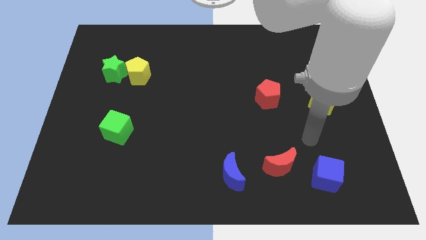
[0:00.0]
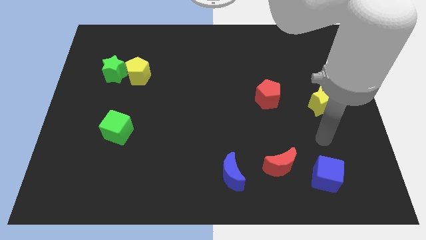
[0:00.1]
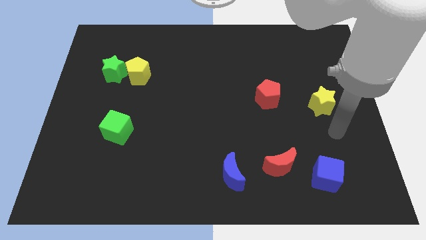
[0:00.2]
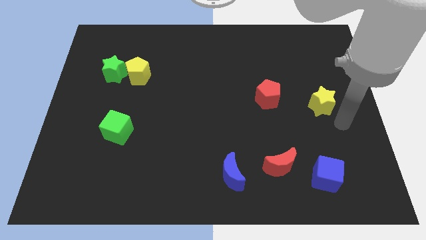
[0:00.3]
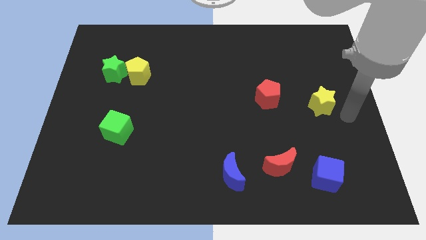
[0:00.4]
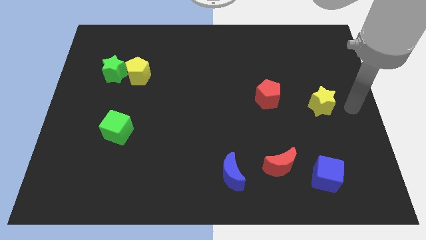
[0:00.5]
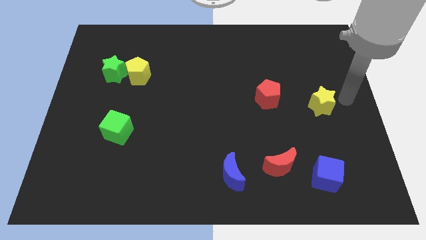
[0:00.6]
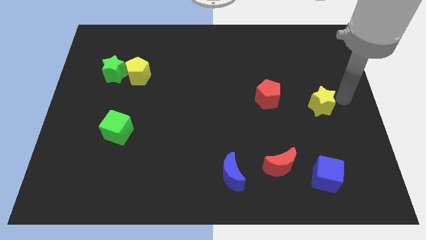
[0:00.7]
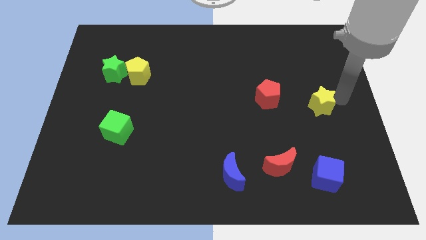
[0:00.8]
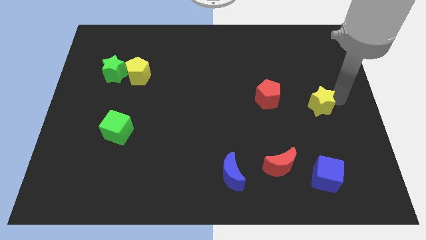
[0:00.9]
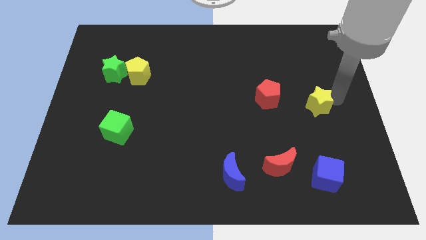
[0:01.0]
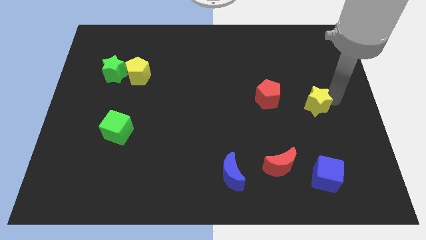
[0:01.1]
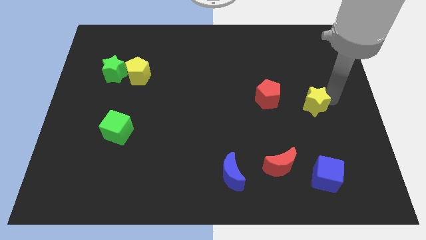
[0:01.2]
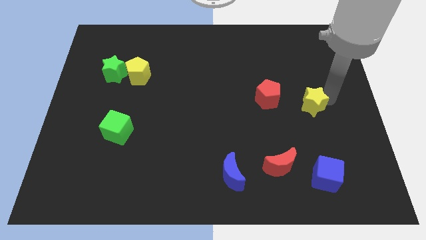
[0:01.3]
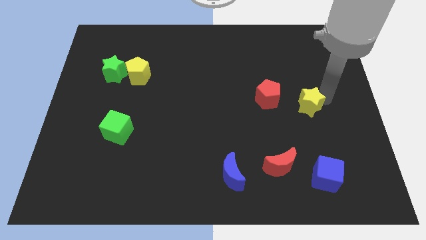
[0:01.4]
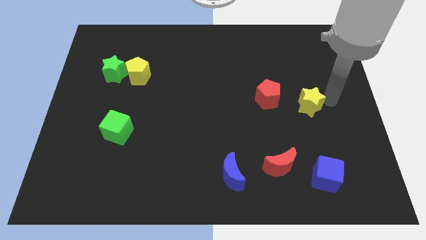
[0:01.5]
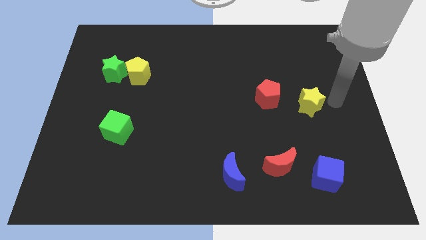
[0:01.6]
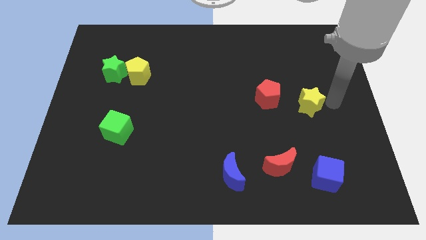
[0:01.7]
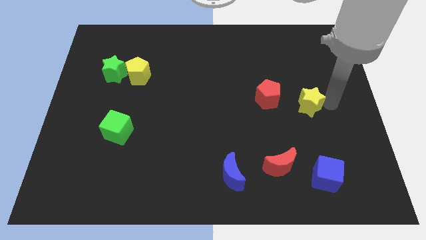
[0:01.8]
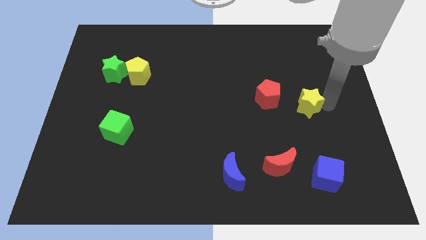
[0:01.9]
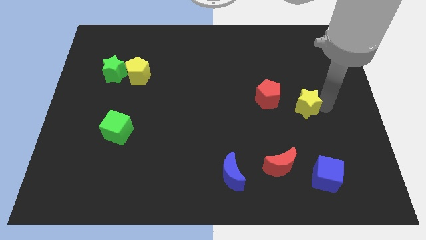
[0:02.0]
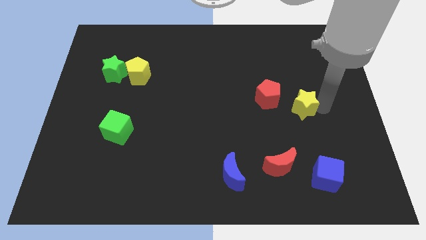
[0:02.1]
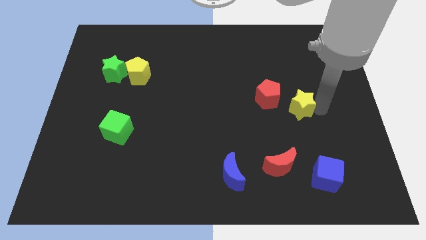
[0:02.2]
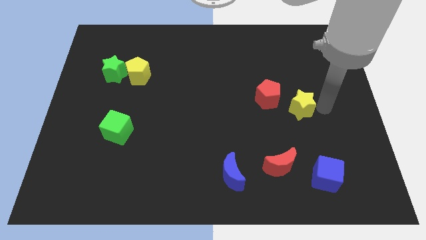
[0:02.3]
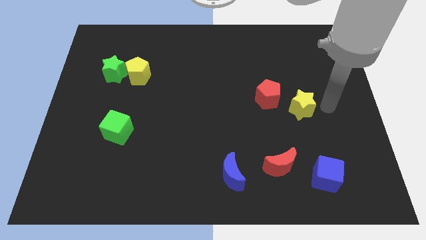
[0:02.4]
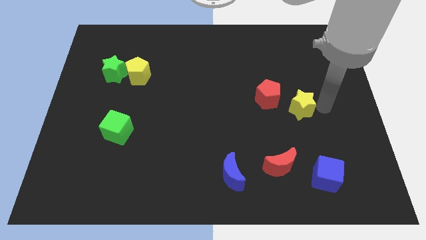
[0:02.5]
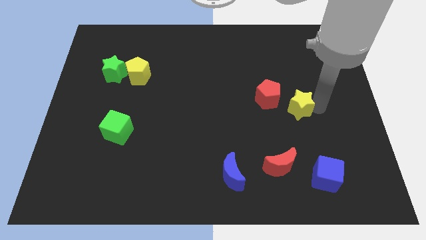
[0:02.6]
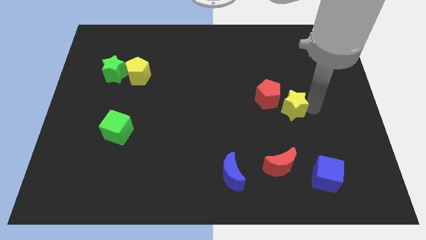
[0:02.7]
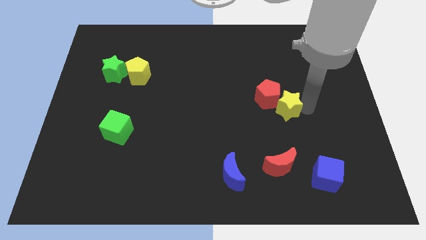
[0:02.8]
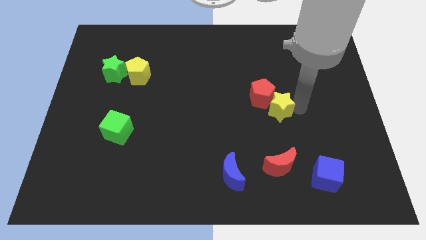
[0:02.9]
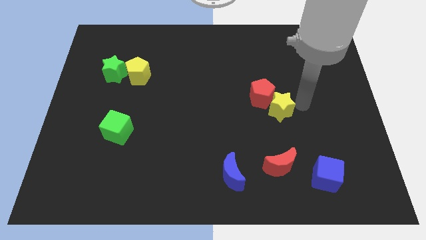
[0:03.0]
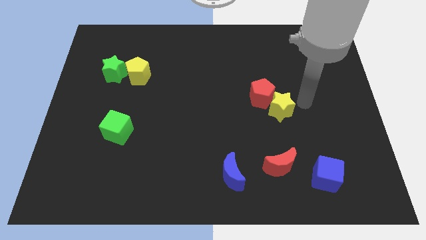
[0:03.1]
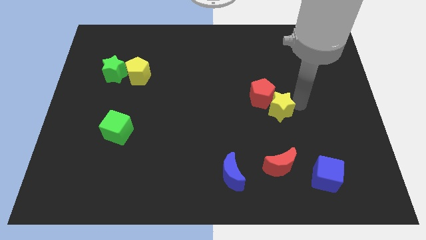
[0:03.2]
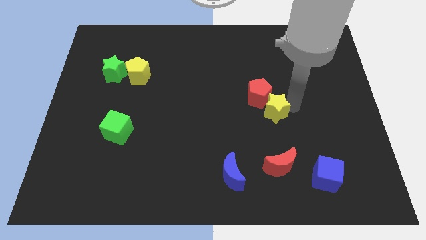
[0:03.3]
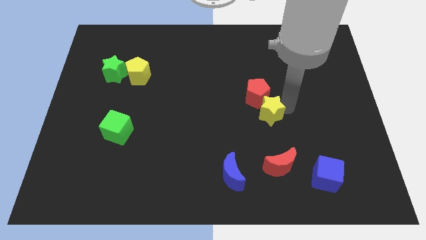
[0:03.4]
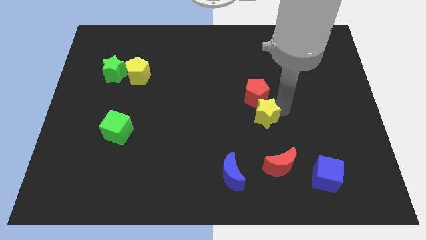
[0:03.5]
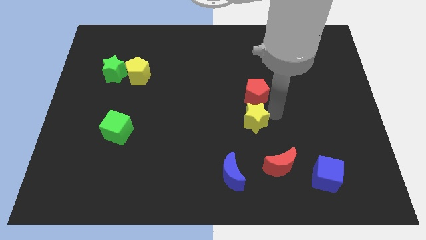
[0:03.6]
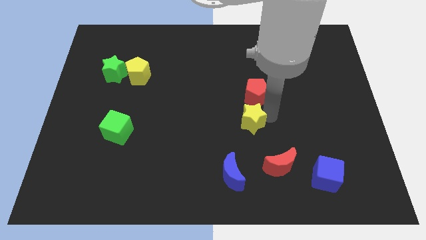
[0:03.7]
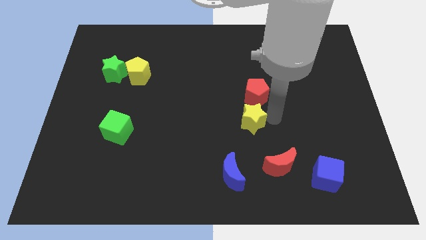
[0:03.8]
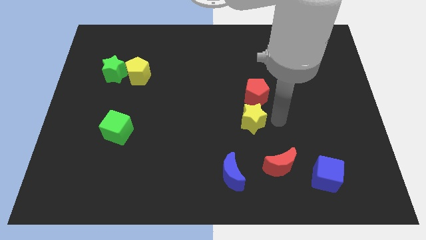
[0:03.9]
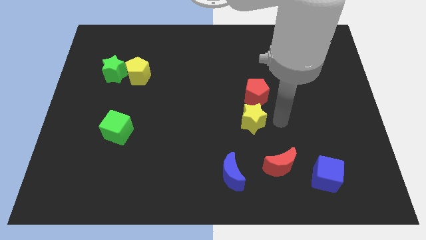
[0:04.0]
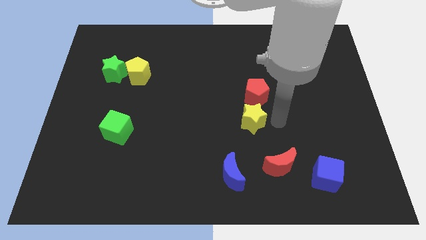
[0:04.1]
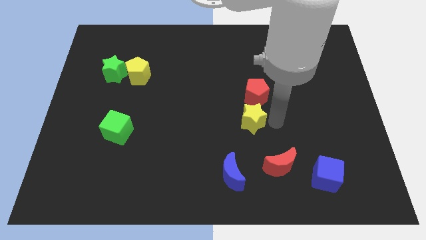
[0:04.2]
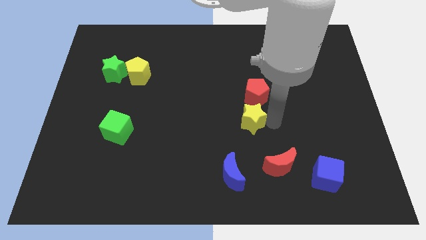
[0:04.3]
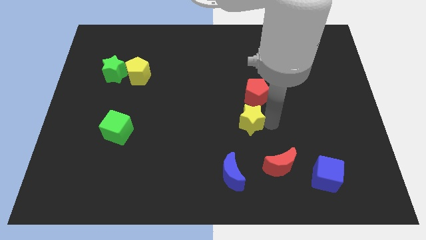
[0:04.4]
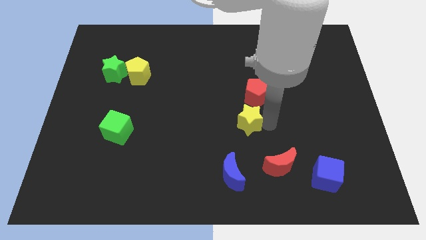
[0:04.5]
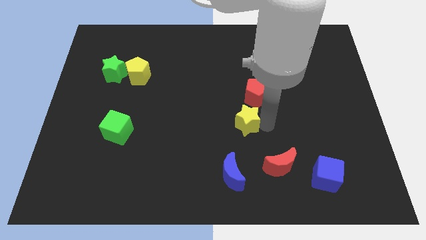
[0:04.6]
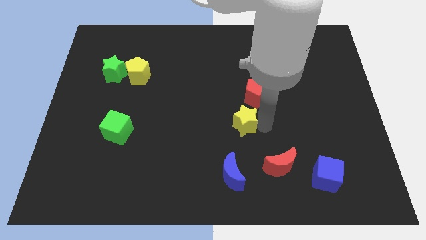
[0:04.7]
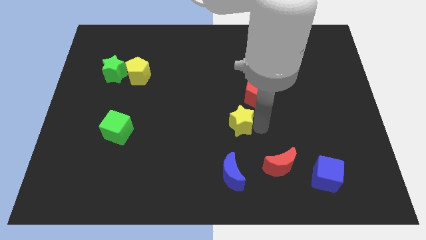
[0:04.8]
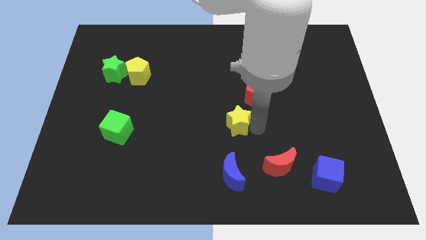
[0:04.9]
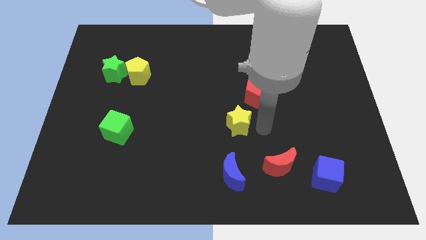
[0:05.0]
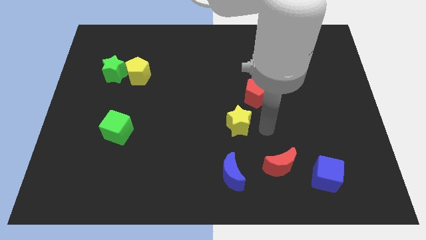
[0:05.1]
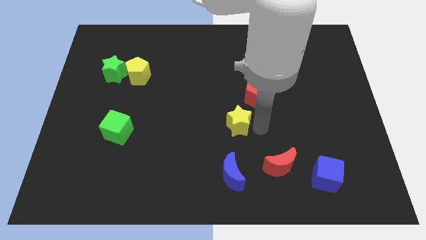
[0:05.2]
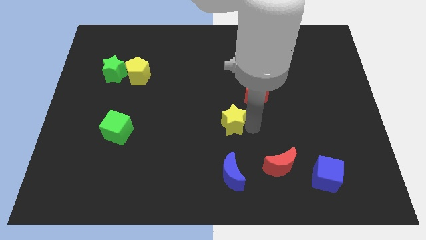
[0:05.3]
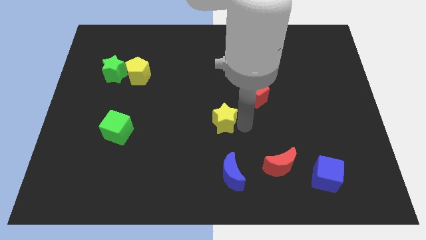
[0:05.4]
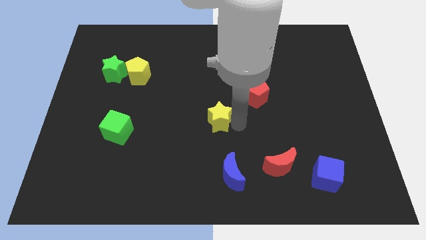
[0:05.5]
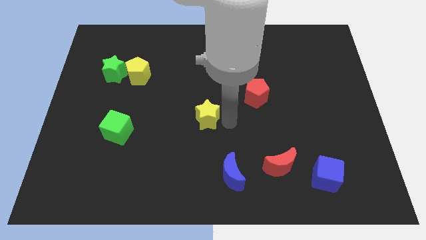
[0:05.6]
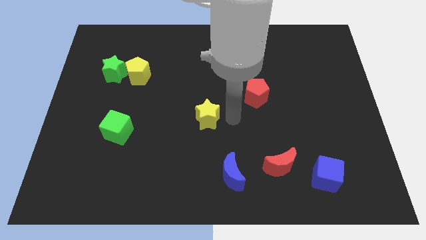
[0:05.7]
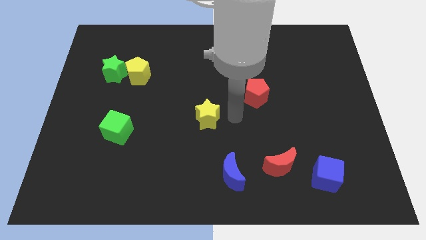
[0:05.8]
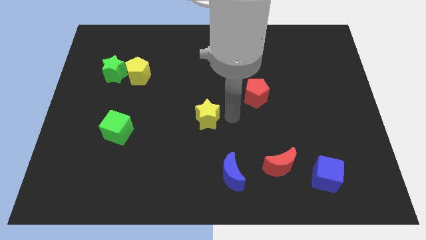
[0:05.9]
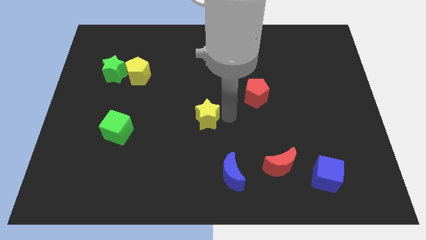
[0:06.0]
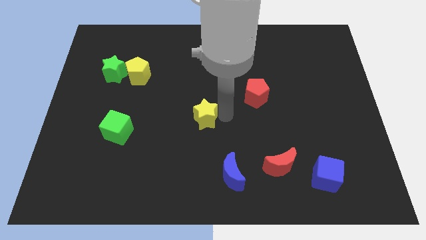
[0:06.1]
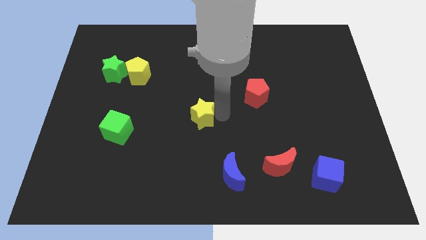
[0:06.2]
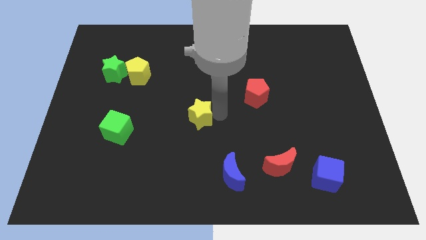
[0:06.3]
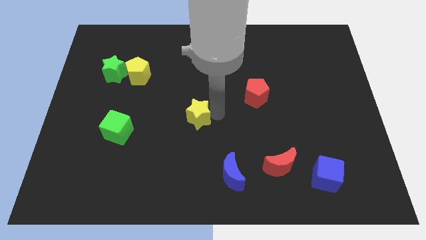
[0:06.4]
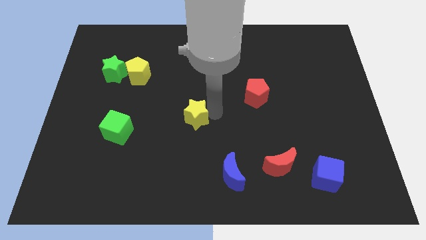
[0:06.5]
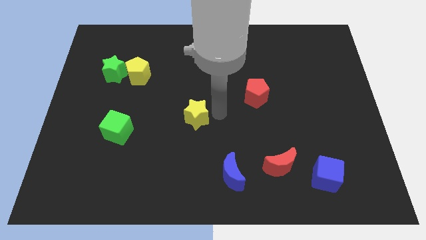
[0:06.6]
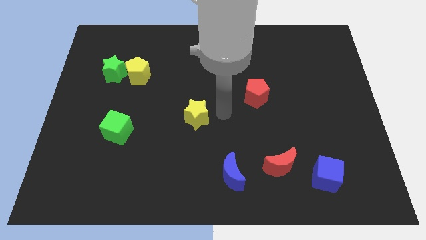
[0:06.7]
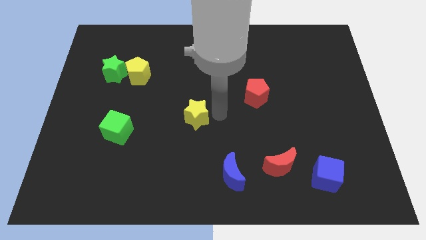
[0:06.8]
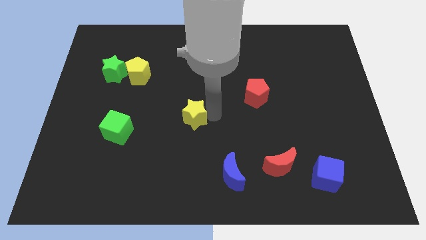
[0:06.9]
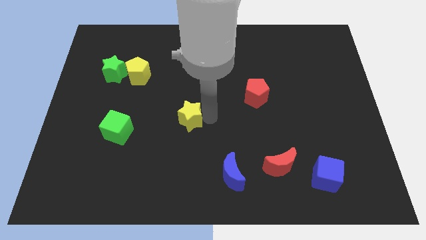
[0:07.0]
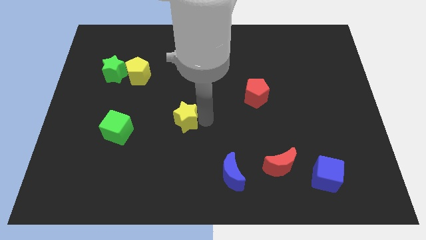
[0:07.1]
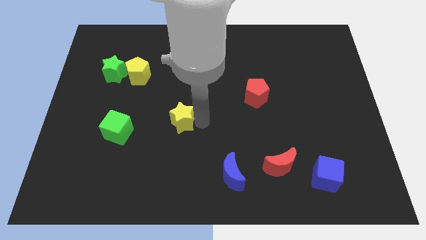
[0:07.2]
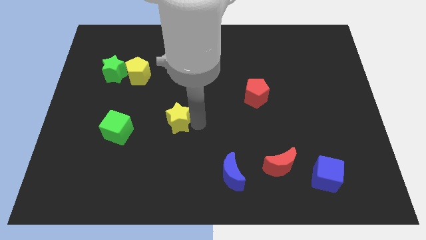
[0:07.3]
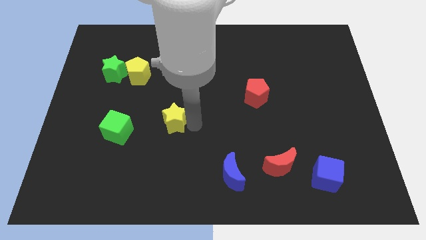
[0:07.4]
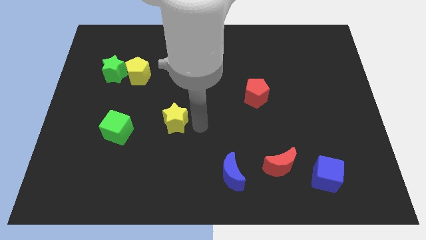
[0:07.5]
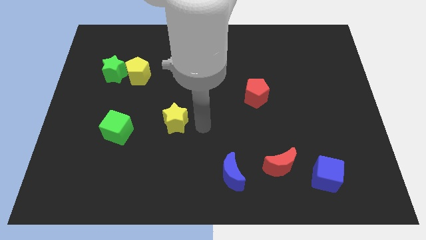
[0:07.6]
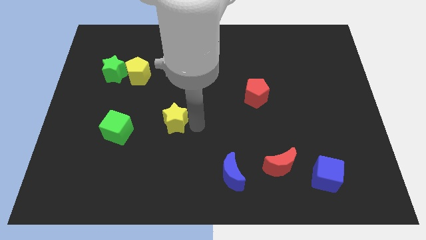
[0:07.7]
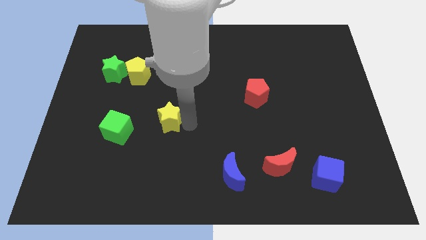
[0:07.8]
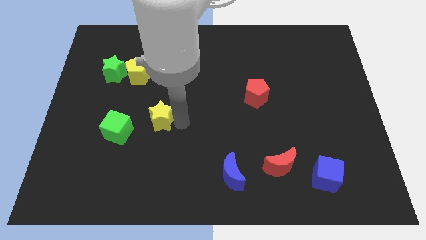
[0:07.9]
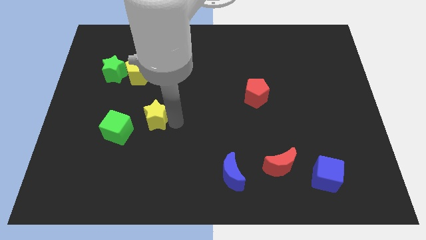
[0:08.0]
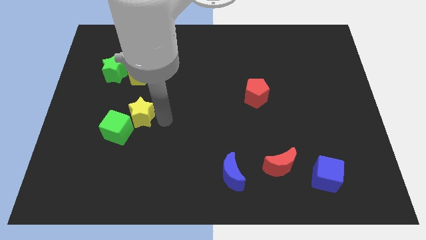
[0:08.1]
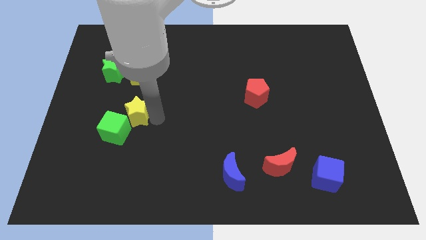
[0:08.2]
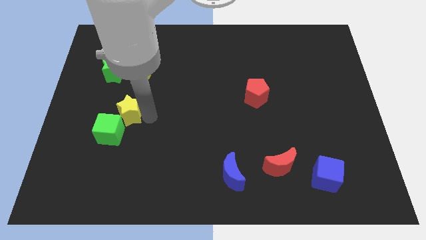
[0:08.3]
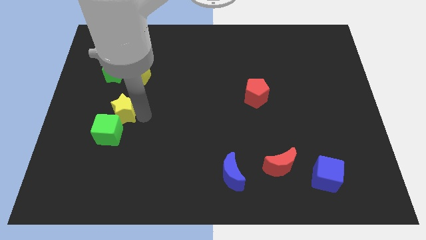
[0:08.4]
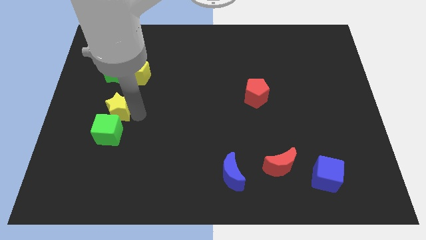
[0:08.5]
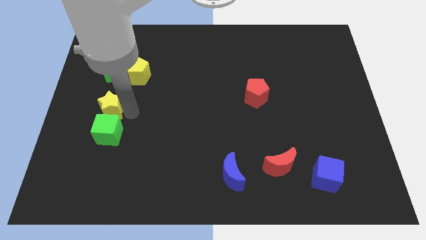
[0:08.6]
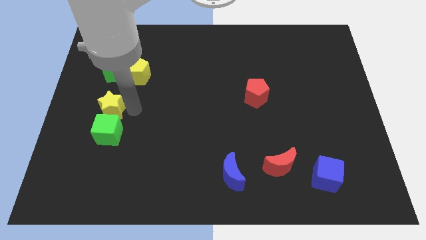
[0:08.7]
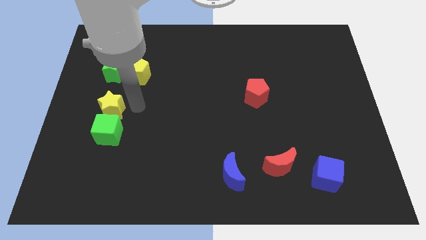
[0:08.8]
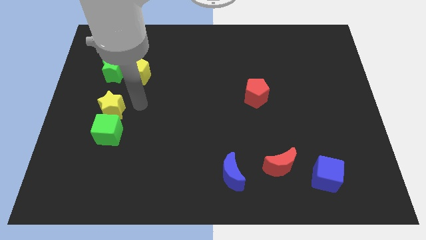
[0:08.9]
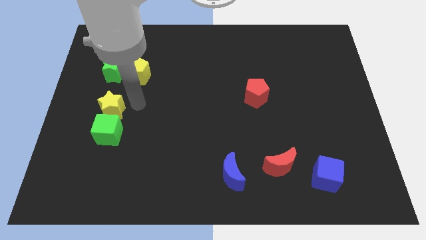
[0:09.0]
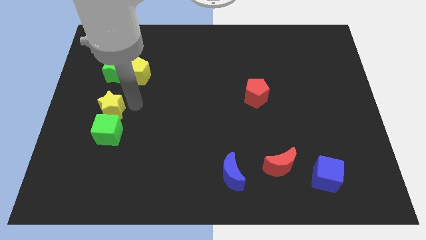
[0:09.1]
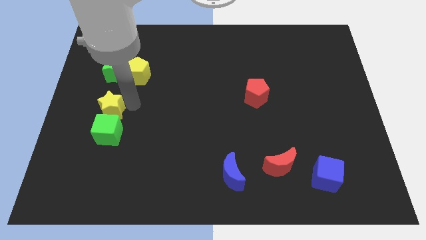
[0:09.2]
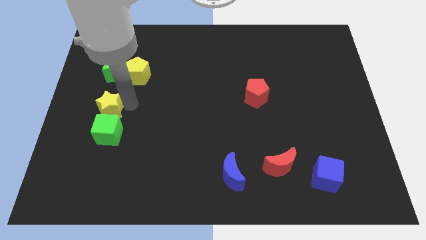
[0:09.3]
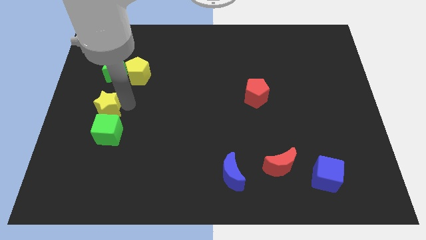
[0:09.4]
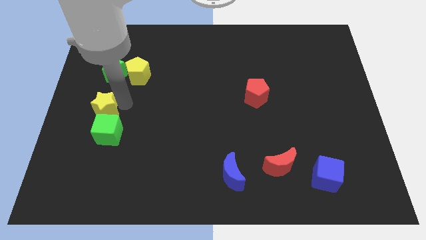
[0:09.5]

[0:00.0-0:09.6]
slide the yellow star to the center left
